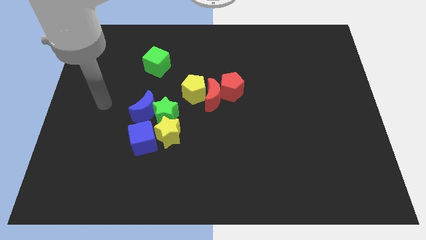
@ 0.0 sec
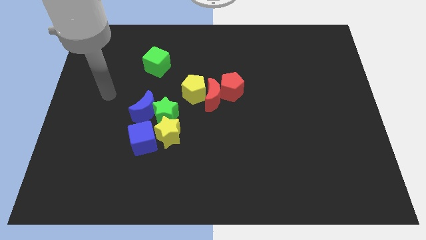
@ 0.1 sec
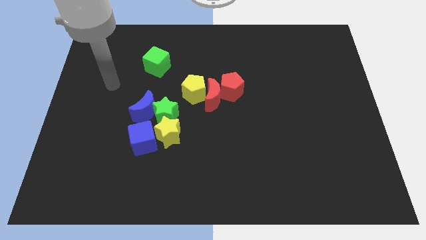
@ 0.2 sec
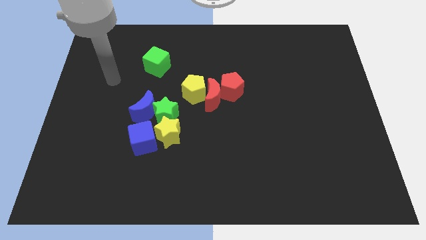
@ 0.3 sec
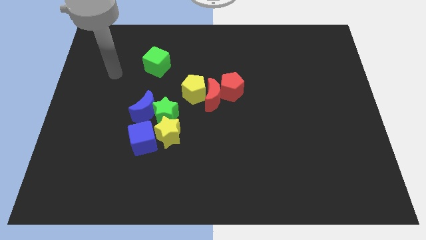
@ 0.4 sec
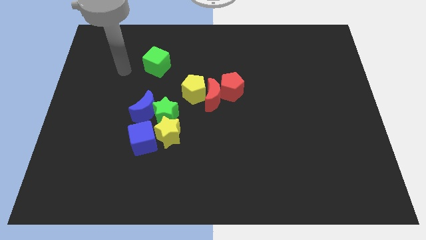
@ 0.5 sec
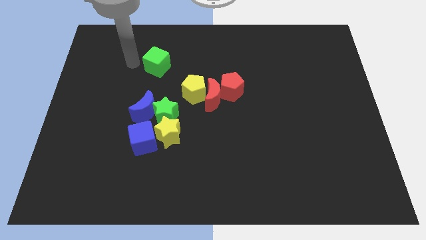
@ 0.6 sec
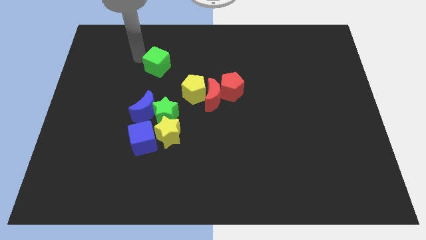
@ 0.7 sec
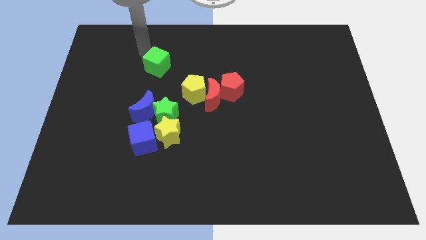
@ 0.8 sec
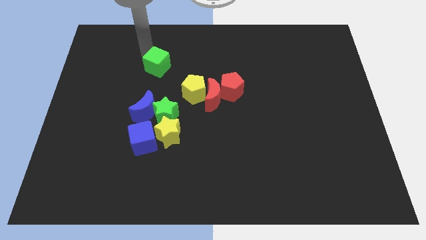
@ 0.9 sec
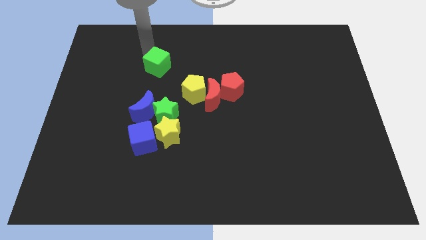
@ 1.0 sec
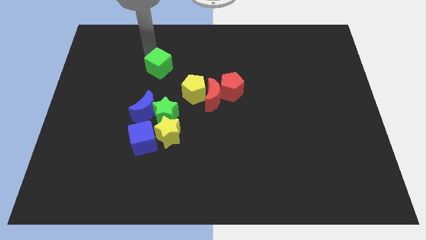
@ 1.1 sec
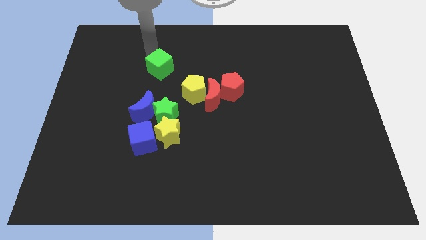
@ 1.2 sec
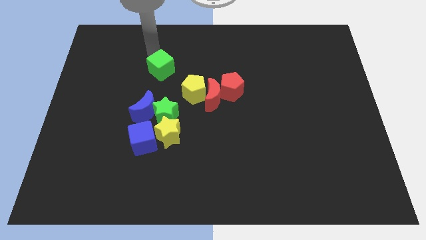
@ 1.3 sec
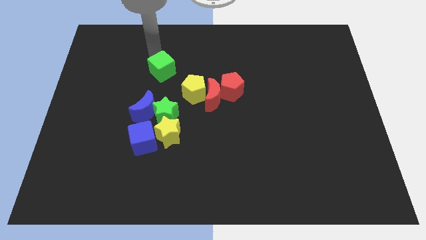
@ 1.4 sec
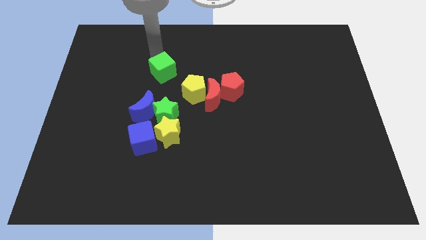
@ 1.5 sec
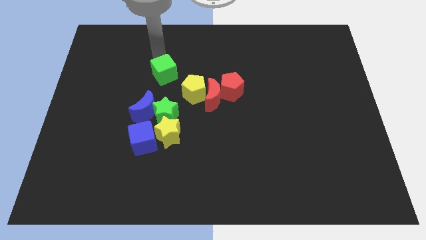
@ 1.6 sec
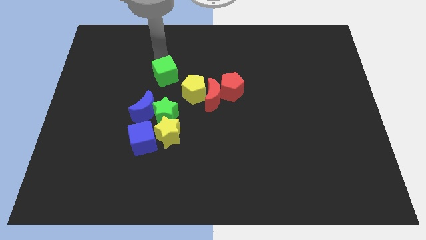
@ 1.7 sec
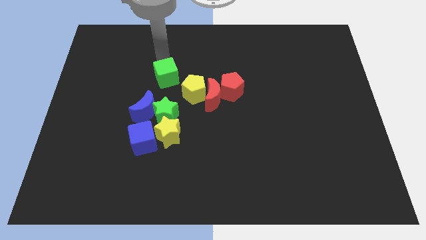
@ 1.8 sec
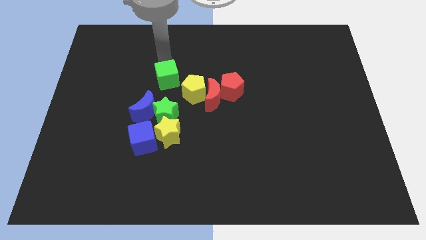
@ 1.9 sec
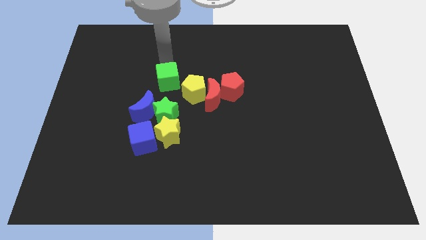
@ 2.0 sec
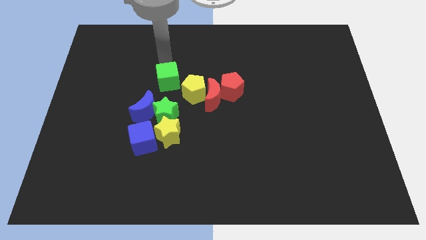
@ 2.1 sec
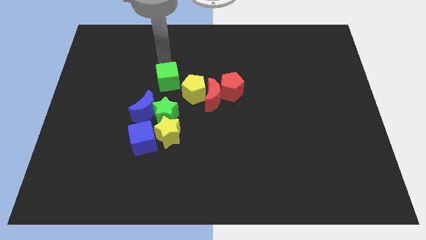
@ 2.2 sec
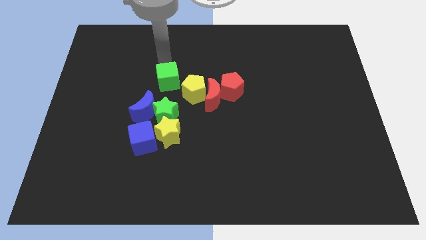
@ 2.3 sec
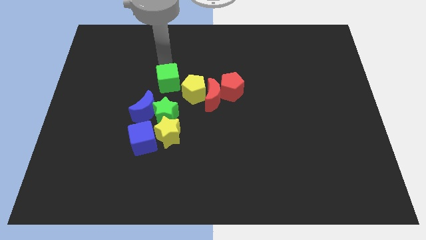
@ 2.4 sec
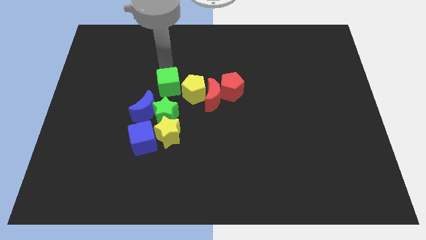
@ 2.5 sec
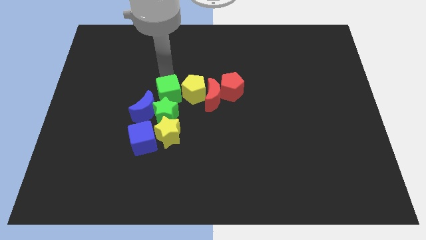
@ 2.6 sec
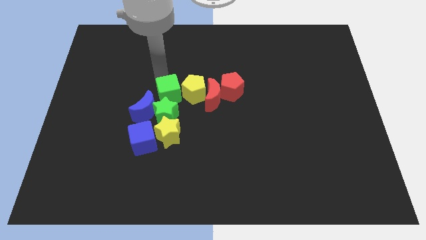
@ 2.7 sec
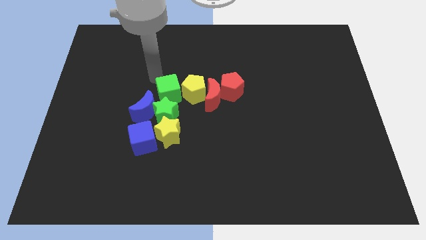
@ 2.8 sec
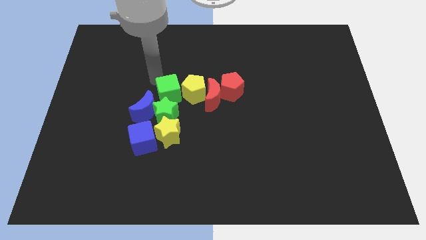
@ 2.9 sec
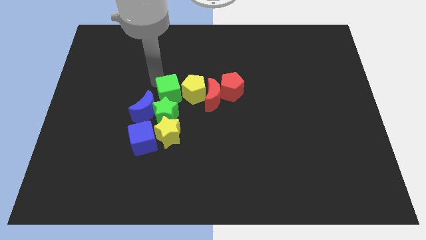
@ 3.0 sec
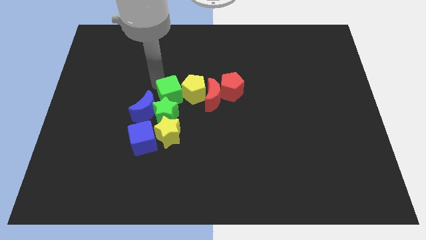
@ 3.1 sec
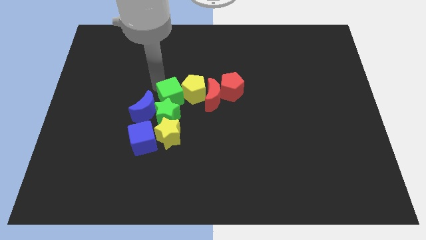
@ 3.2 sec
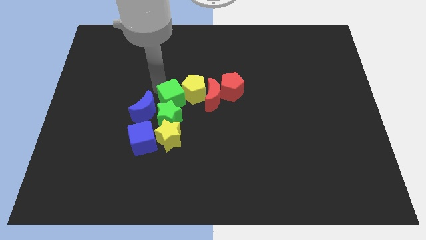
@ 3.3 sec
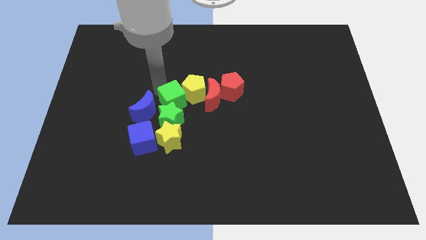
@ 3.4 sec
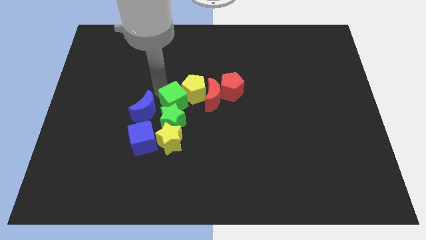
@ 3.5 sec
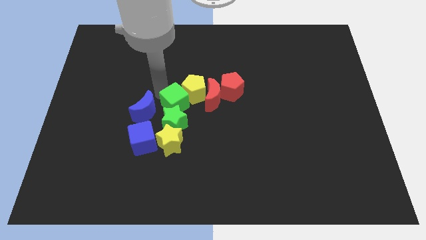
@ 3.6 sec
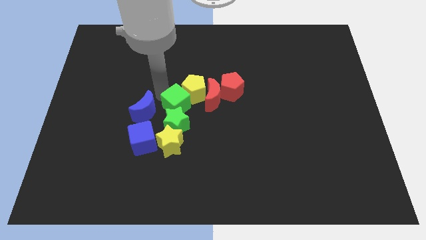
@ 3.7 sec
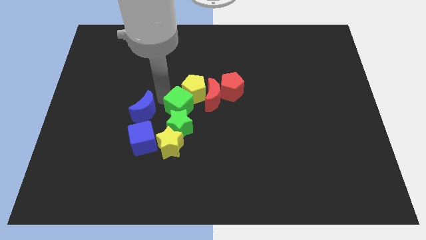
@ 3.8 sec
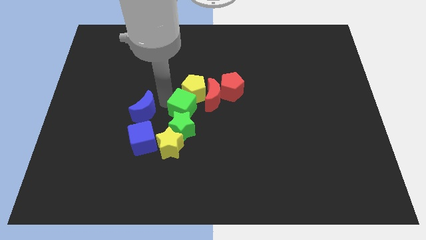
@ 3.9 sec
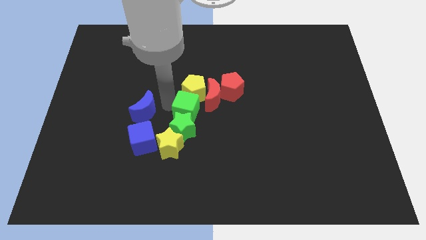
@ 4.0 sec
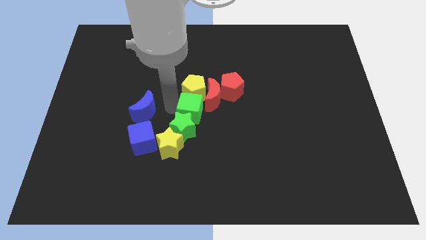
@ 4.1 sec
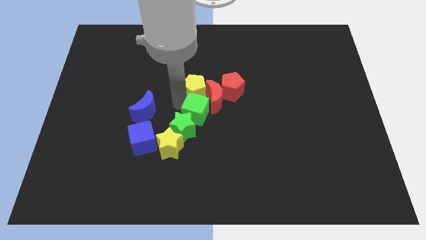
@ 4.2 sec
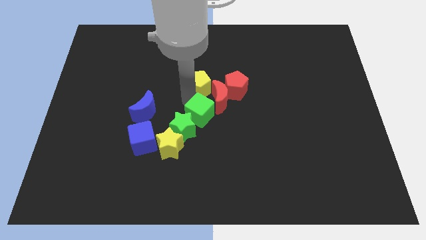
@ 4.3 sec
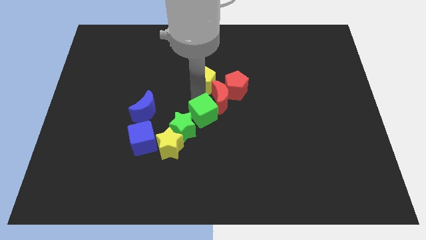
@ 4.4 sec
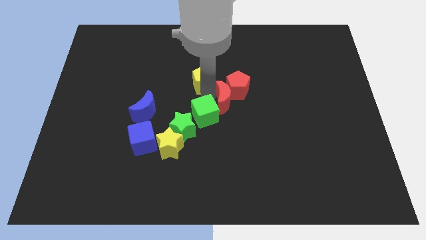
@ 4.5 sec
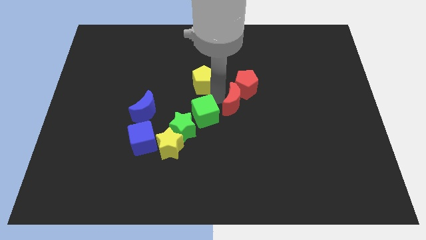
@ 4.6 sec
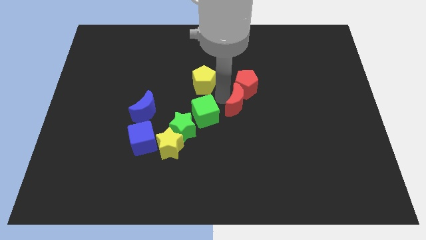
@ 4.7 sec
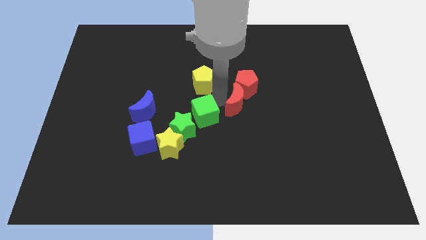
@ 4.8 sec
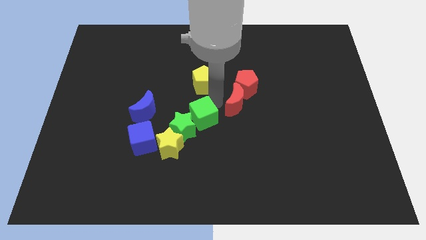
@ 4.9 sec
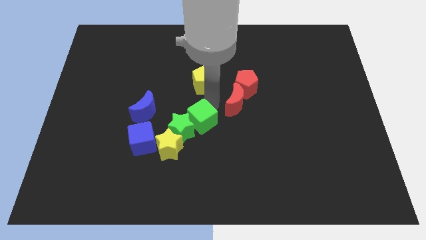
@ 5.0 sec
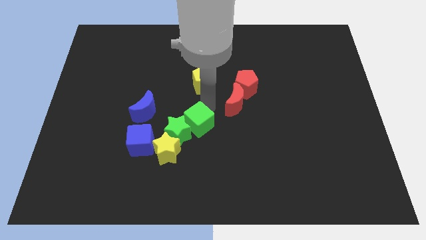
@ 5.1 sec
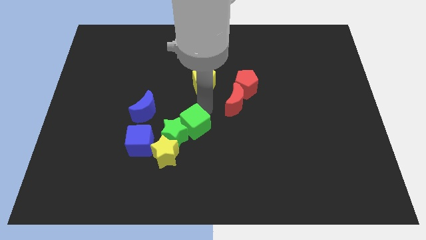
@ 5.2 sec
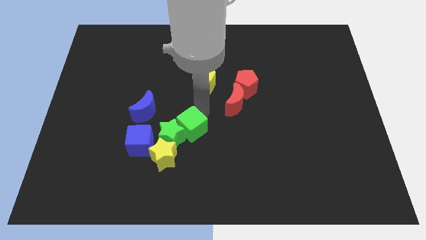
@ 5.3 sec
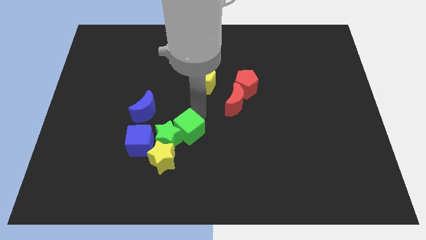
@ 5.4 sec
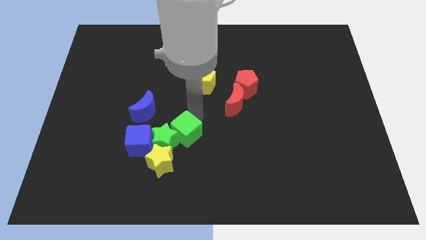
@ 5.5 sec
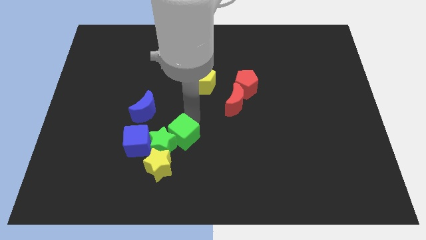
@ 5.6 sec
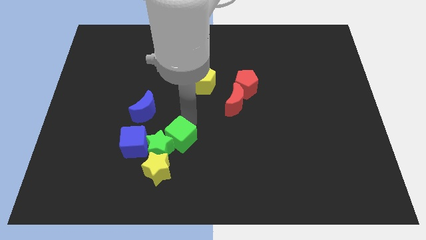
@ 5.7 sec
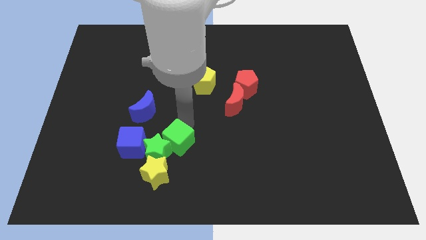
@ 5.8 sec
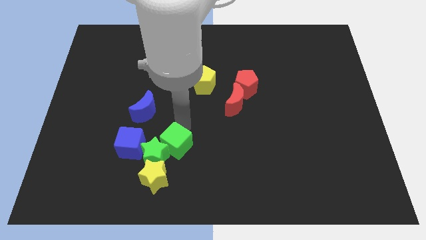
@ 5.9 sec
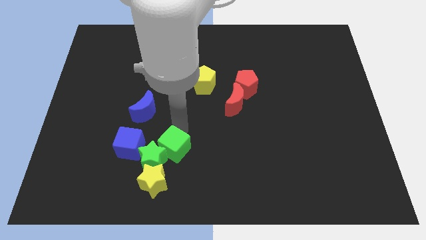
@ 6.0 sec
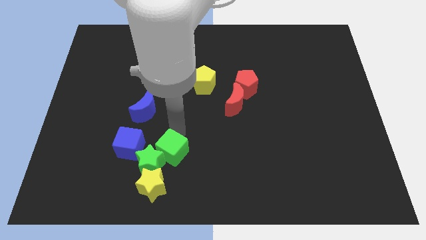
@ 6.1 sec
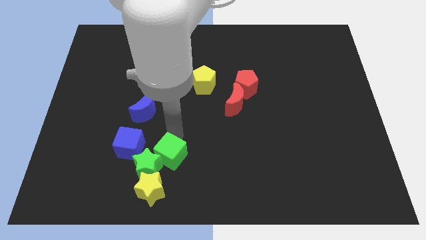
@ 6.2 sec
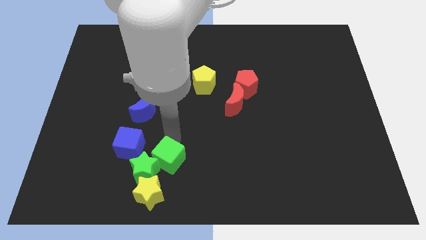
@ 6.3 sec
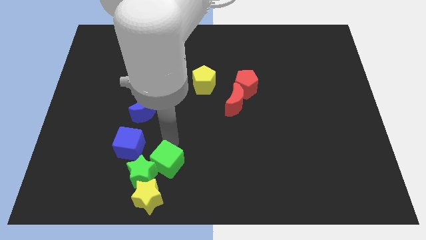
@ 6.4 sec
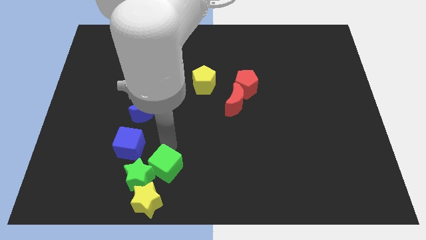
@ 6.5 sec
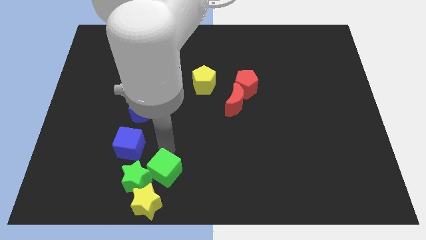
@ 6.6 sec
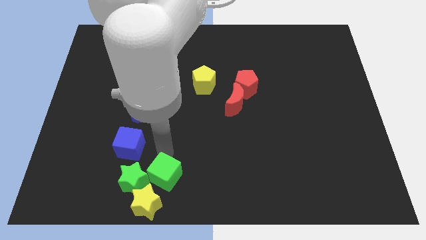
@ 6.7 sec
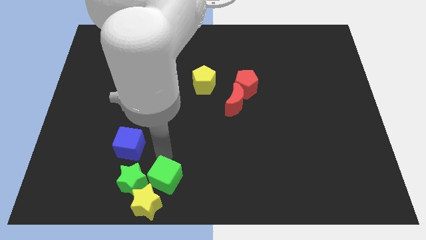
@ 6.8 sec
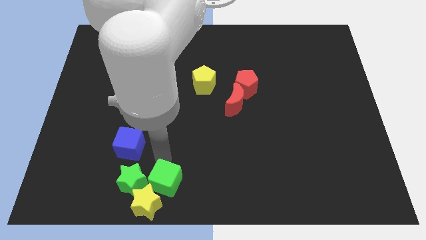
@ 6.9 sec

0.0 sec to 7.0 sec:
put the green cube next to the yellow star
